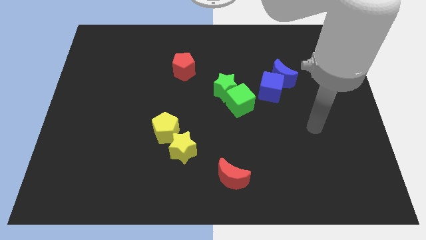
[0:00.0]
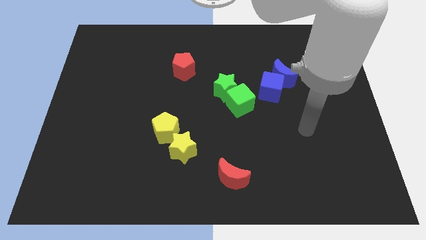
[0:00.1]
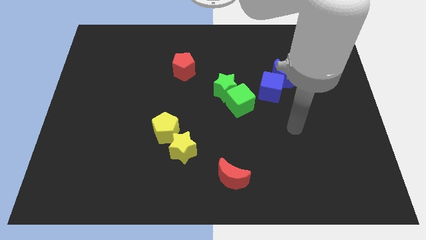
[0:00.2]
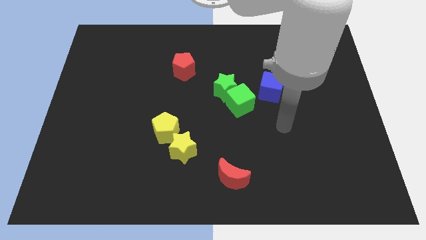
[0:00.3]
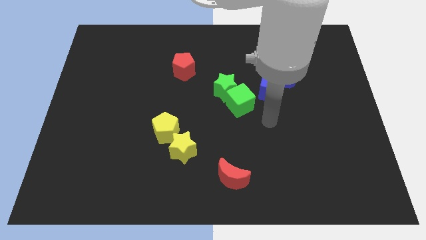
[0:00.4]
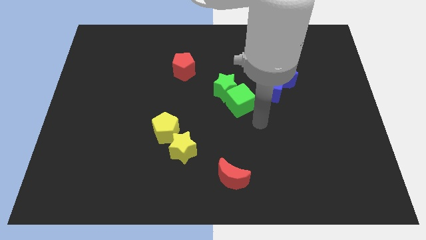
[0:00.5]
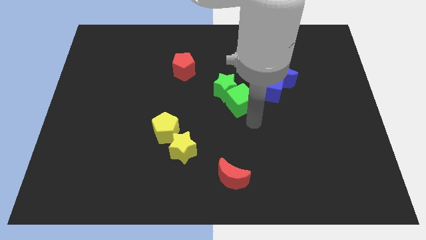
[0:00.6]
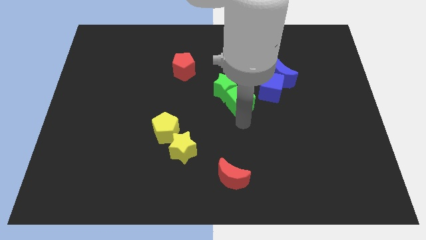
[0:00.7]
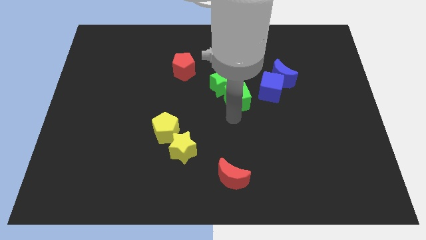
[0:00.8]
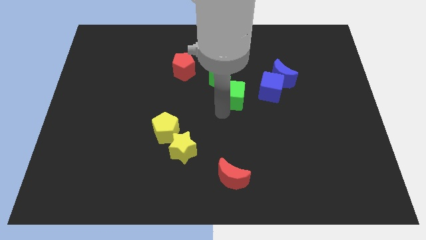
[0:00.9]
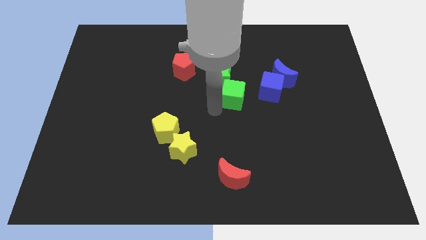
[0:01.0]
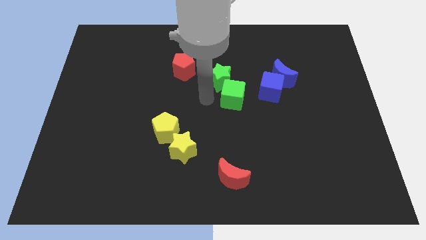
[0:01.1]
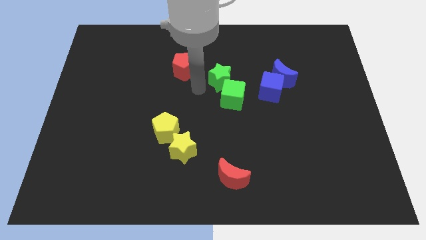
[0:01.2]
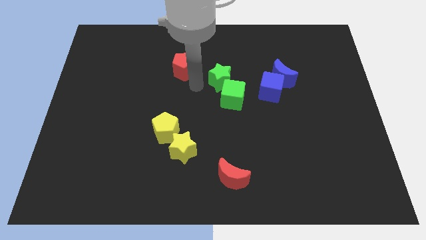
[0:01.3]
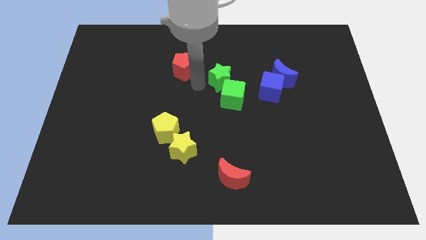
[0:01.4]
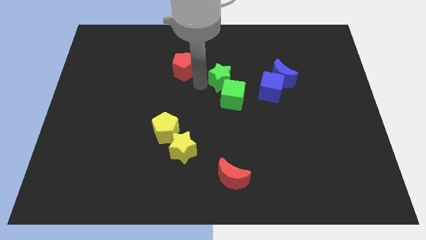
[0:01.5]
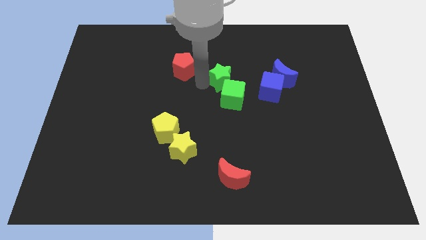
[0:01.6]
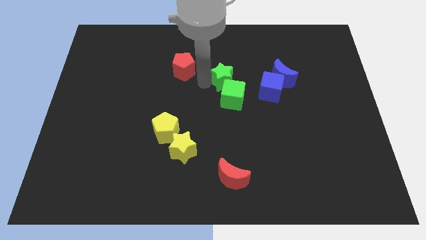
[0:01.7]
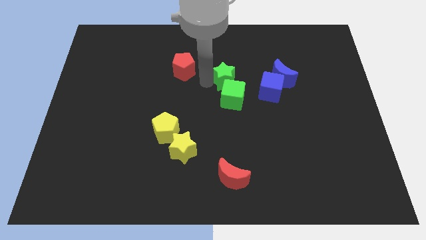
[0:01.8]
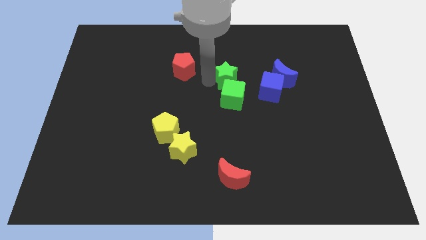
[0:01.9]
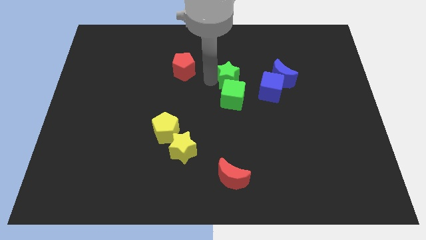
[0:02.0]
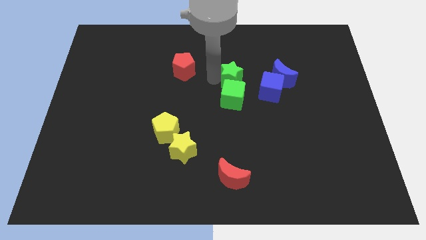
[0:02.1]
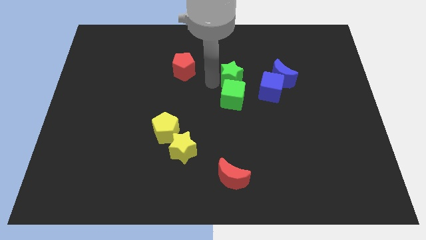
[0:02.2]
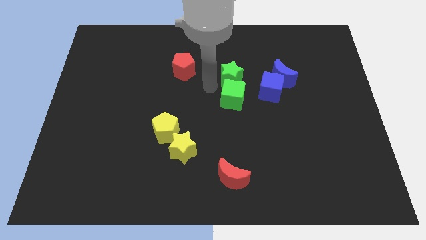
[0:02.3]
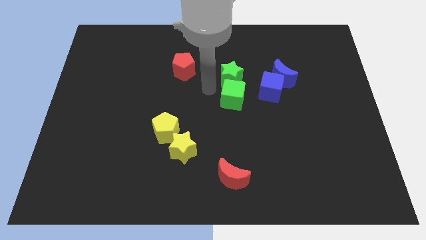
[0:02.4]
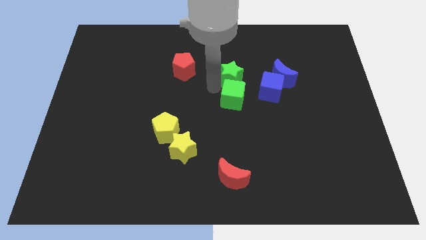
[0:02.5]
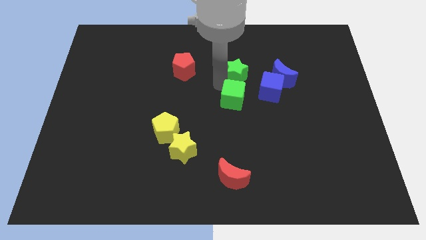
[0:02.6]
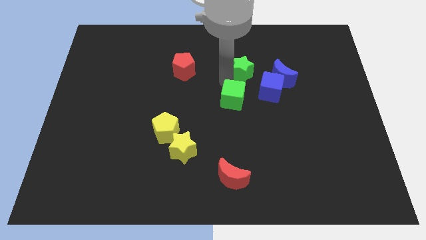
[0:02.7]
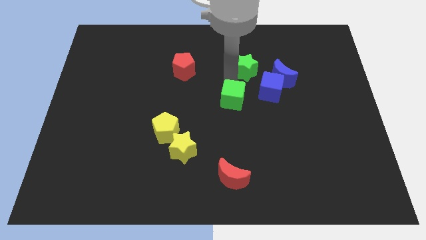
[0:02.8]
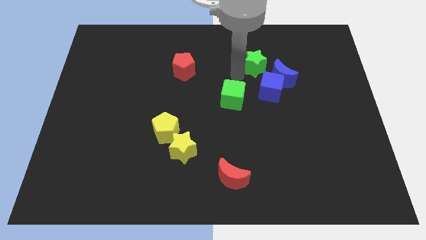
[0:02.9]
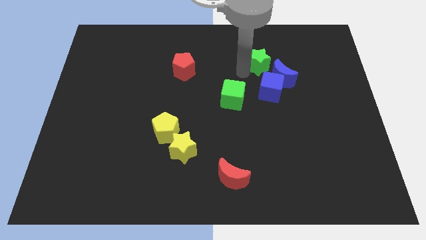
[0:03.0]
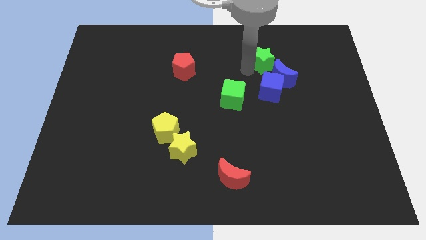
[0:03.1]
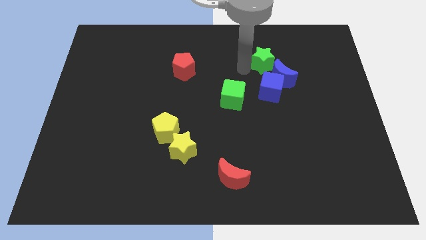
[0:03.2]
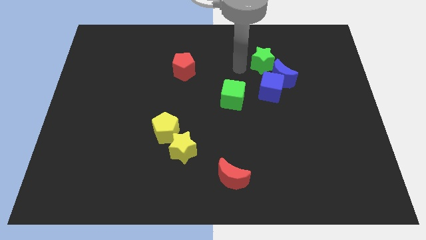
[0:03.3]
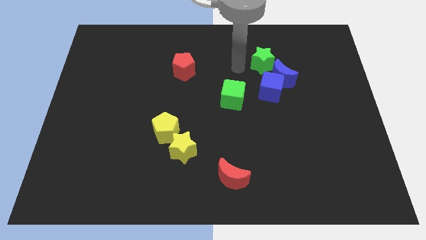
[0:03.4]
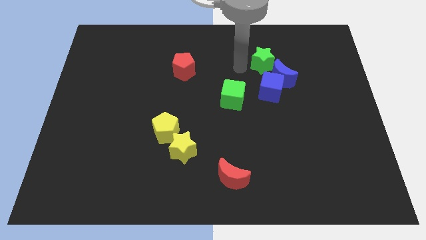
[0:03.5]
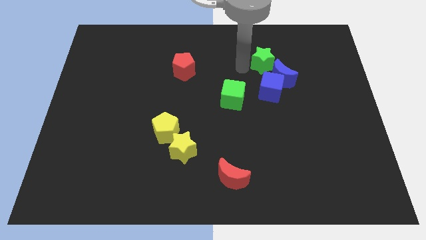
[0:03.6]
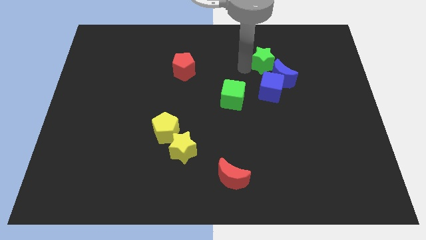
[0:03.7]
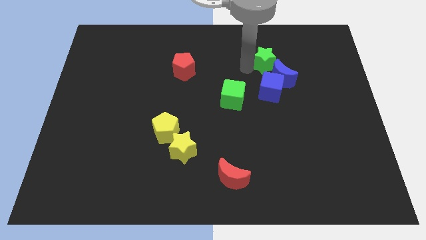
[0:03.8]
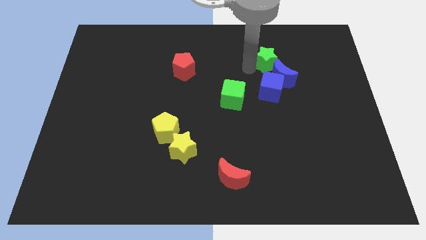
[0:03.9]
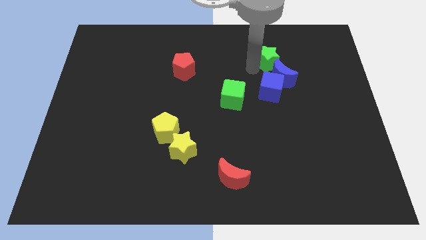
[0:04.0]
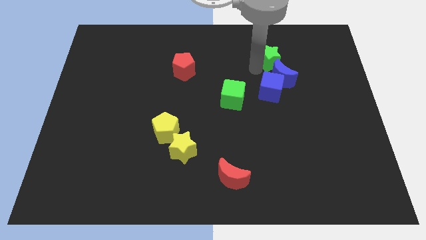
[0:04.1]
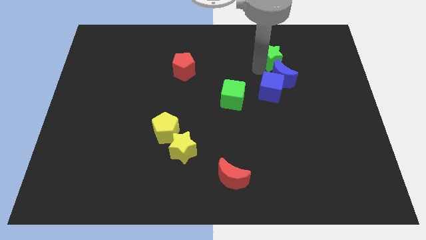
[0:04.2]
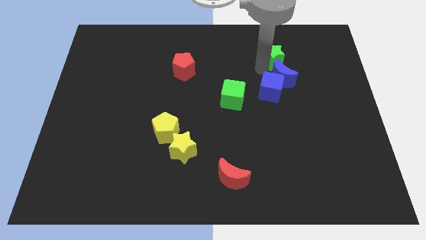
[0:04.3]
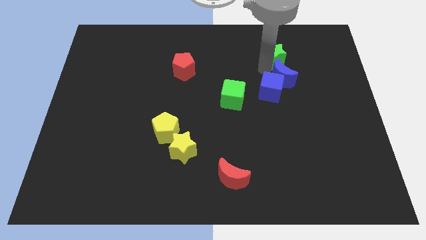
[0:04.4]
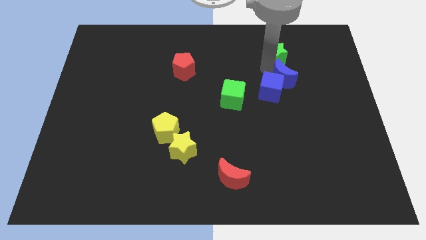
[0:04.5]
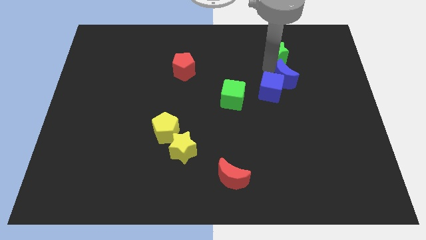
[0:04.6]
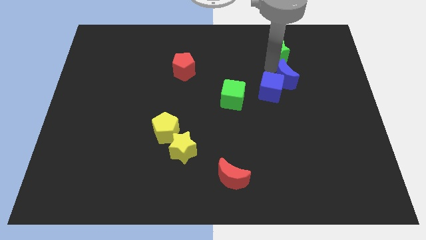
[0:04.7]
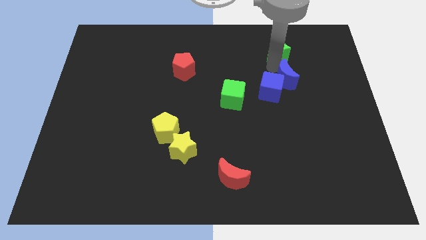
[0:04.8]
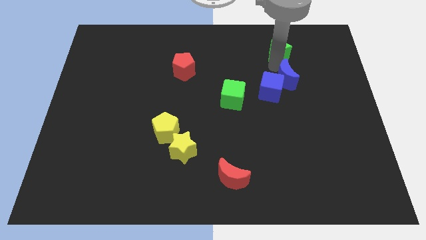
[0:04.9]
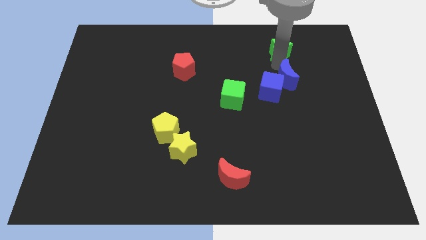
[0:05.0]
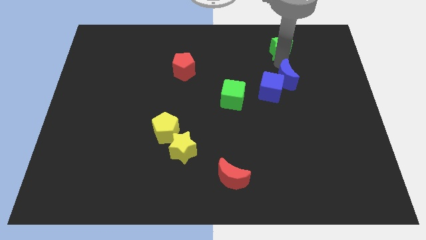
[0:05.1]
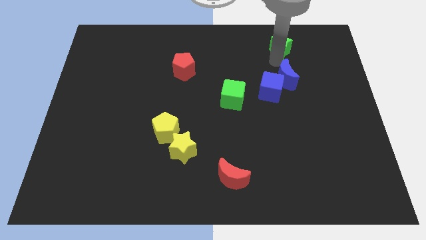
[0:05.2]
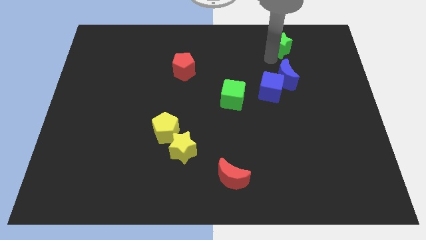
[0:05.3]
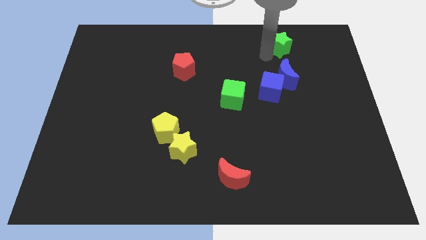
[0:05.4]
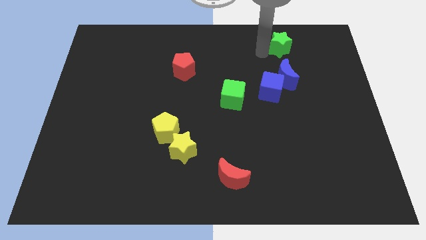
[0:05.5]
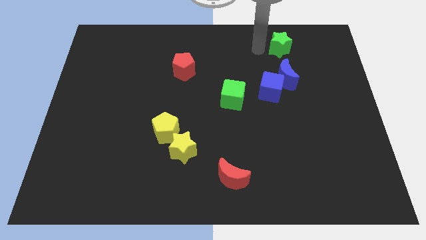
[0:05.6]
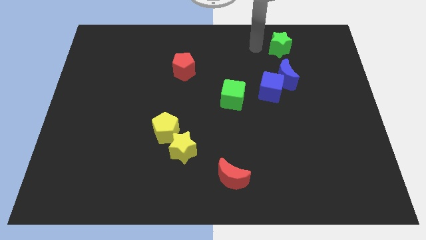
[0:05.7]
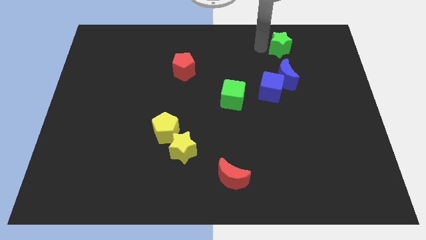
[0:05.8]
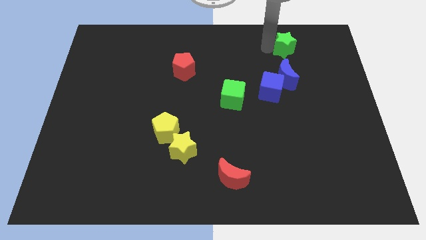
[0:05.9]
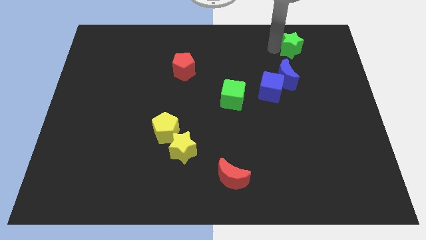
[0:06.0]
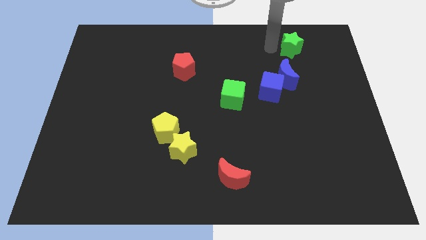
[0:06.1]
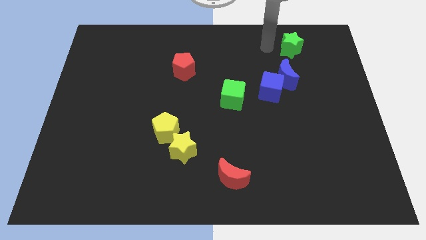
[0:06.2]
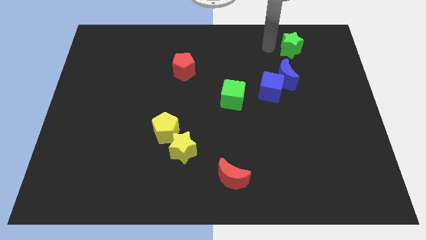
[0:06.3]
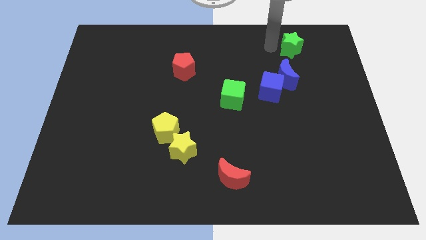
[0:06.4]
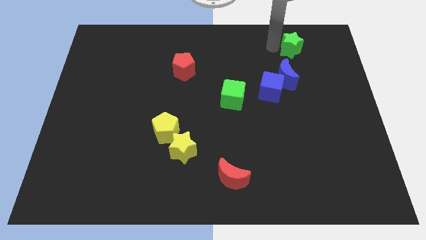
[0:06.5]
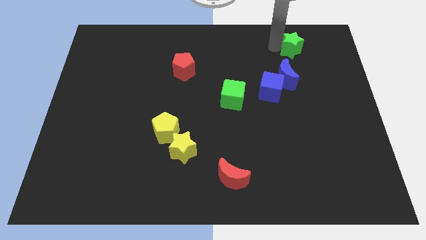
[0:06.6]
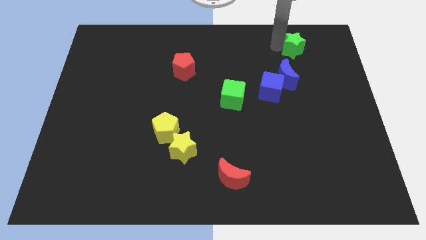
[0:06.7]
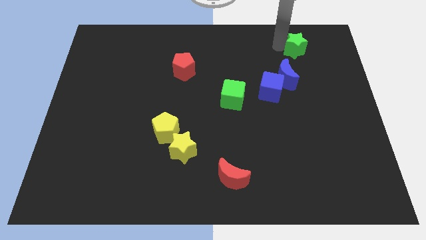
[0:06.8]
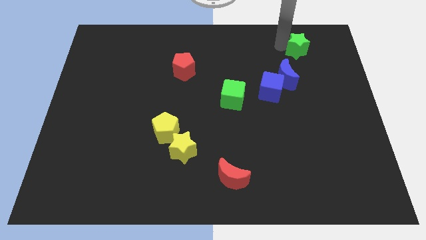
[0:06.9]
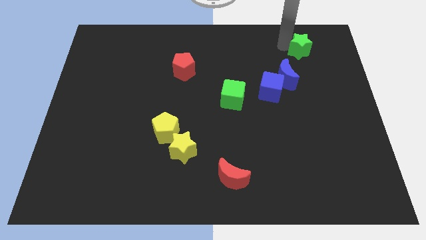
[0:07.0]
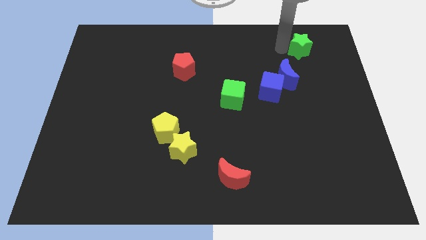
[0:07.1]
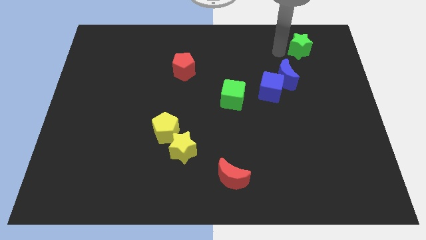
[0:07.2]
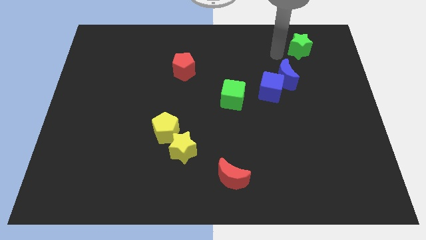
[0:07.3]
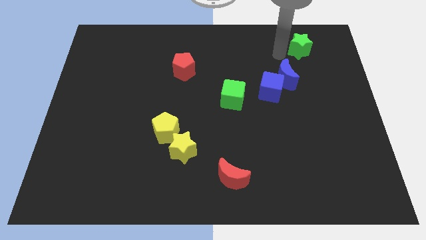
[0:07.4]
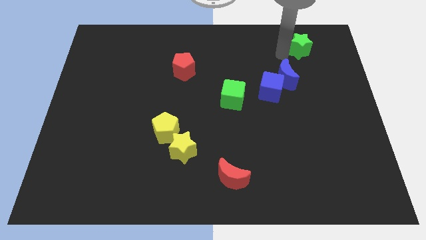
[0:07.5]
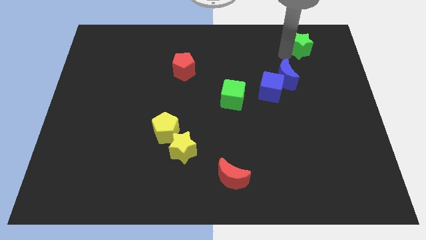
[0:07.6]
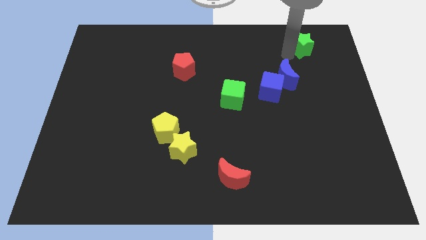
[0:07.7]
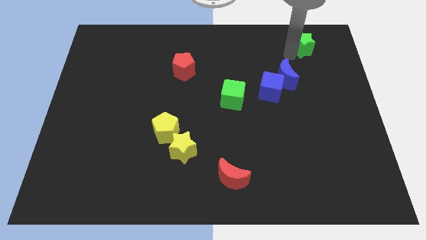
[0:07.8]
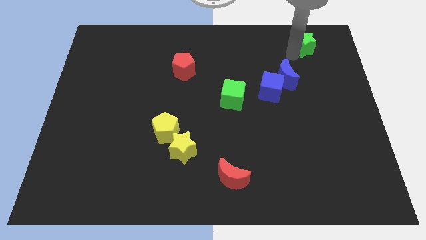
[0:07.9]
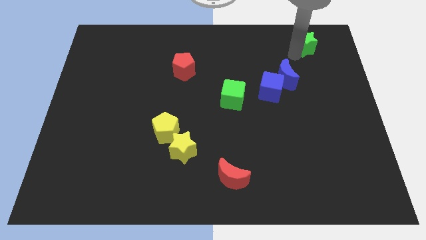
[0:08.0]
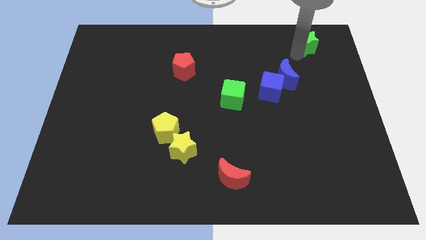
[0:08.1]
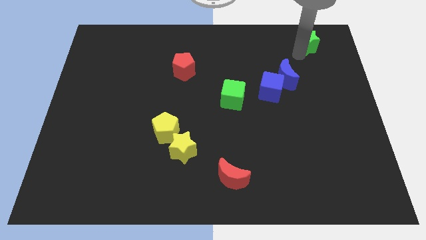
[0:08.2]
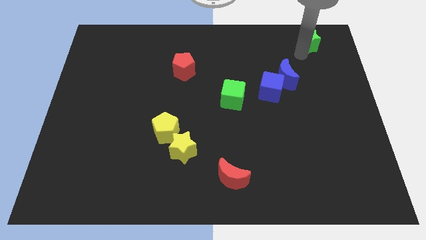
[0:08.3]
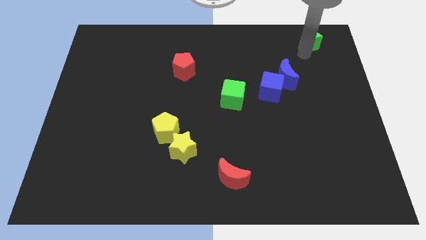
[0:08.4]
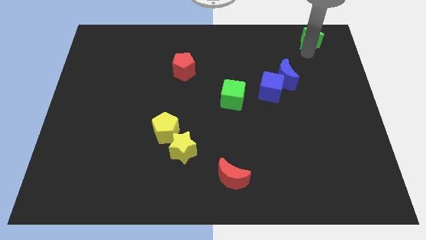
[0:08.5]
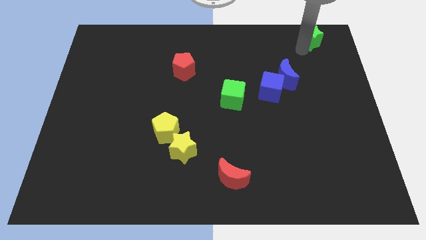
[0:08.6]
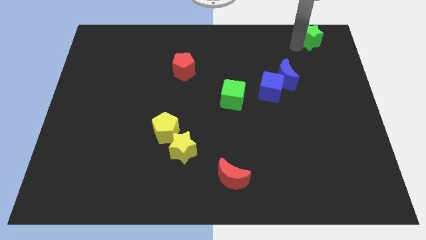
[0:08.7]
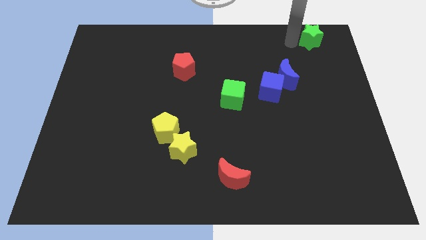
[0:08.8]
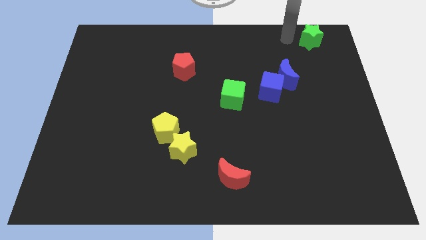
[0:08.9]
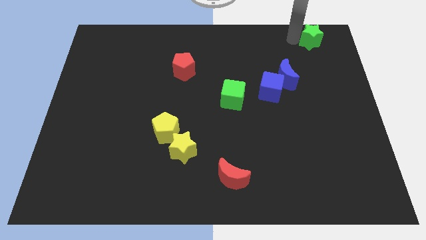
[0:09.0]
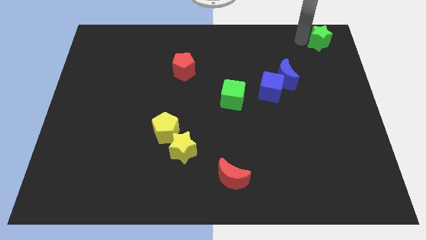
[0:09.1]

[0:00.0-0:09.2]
put the green star to the top right of the board
